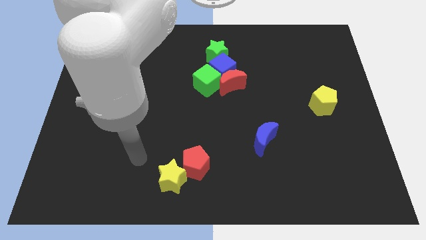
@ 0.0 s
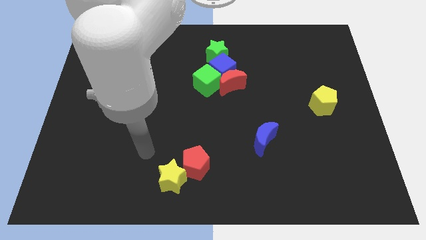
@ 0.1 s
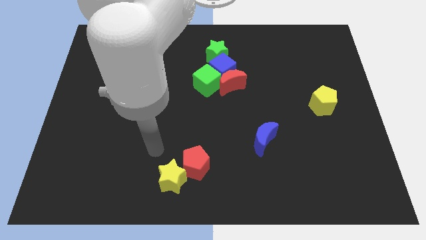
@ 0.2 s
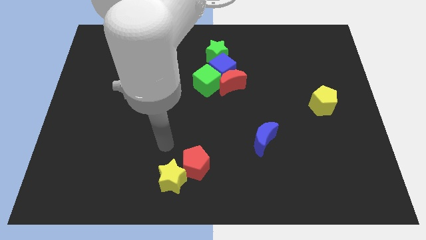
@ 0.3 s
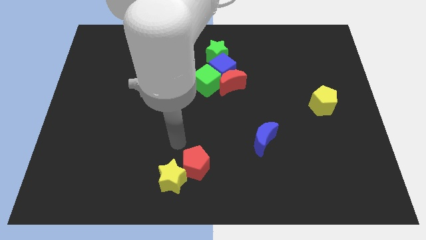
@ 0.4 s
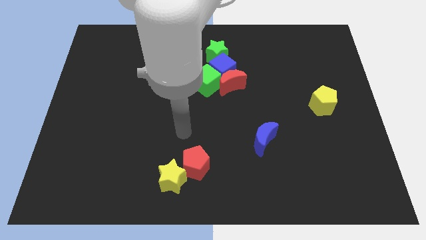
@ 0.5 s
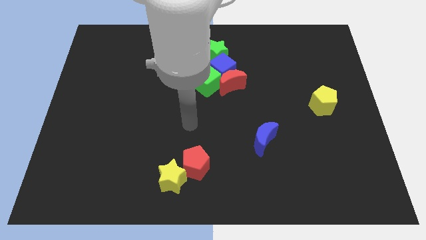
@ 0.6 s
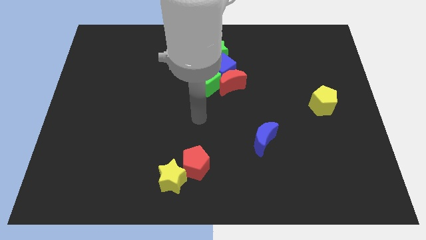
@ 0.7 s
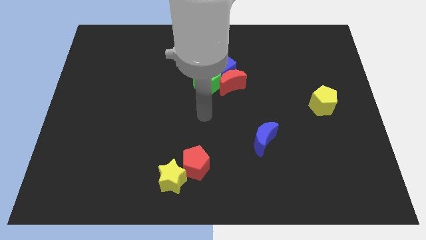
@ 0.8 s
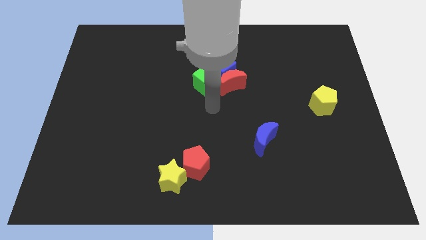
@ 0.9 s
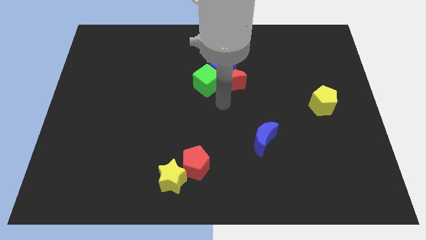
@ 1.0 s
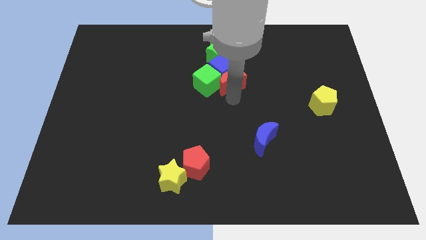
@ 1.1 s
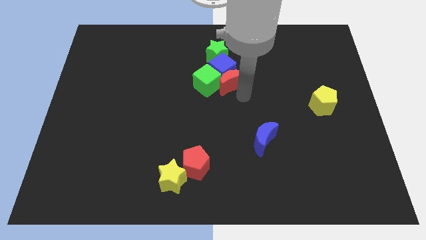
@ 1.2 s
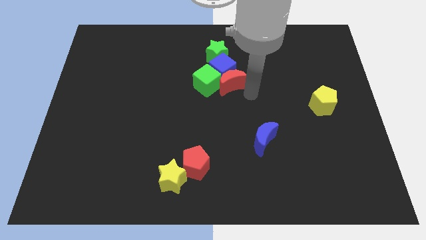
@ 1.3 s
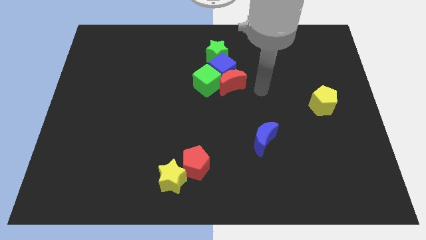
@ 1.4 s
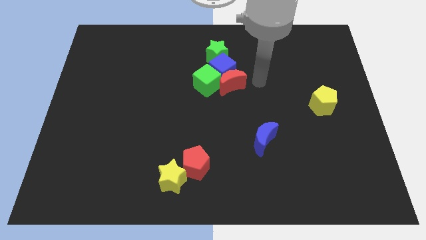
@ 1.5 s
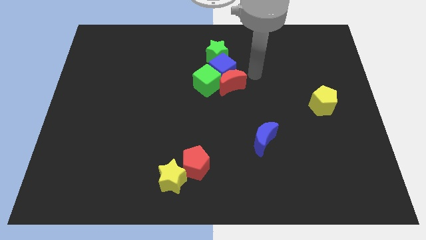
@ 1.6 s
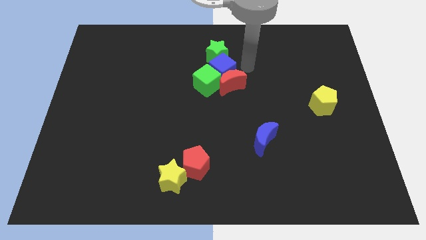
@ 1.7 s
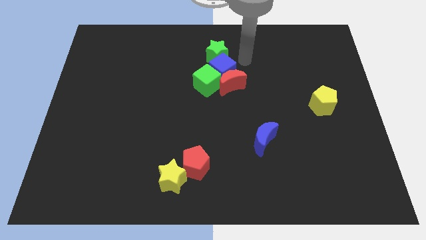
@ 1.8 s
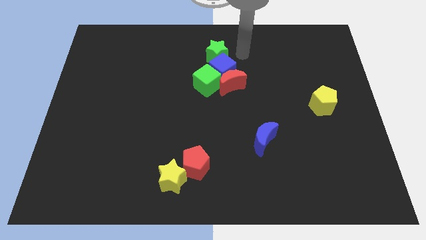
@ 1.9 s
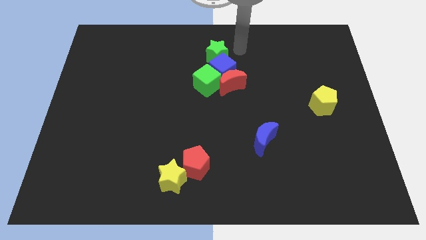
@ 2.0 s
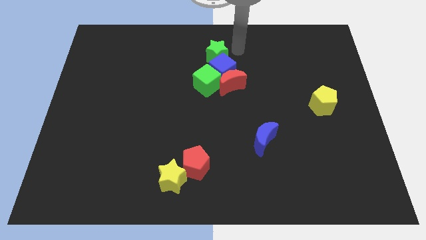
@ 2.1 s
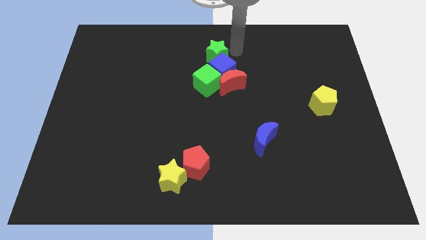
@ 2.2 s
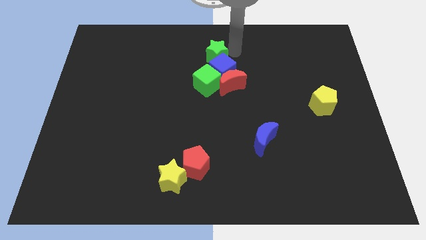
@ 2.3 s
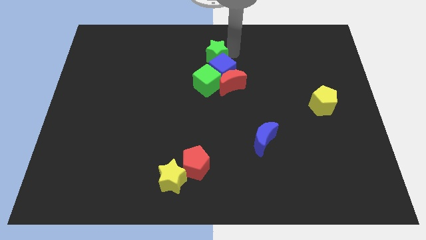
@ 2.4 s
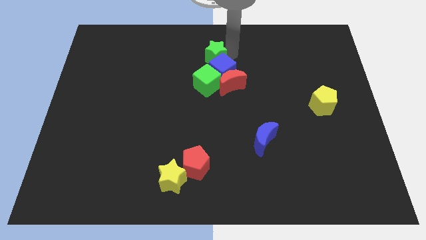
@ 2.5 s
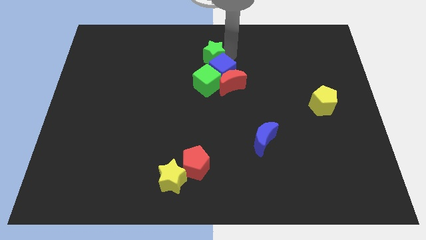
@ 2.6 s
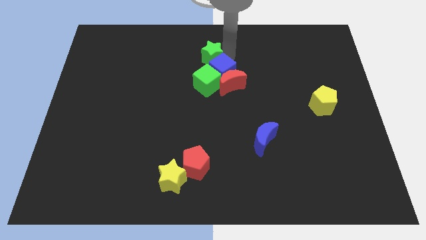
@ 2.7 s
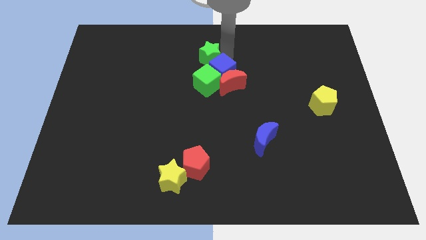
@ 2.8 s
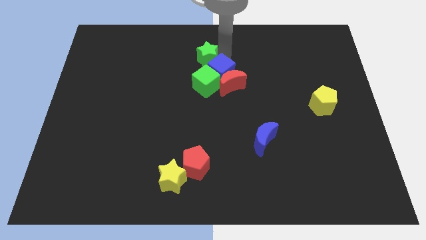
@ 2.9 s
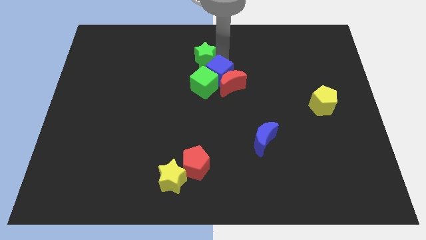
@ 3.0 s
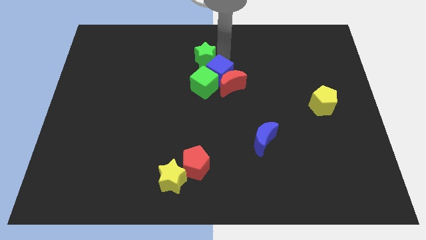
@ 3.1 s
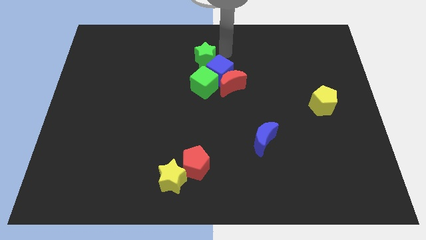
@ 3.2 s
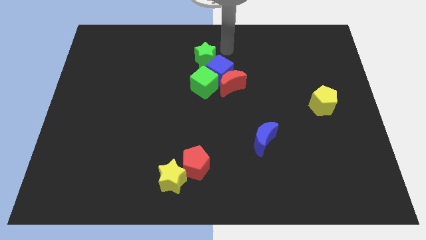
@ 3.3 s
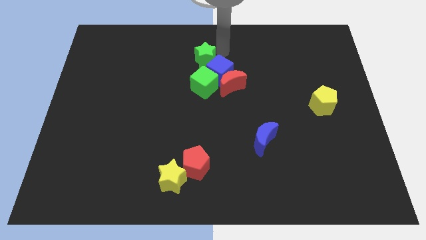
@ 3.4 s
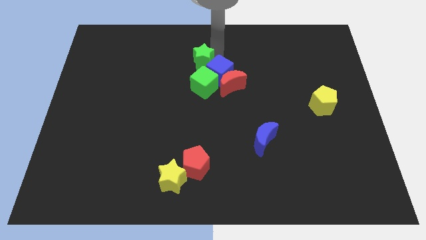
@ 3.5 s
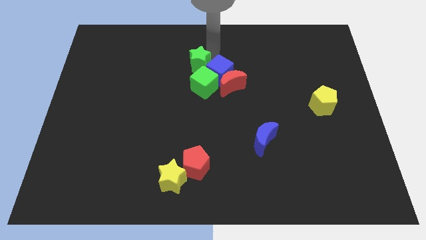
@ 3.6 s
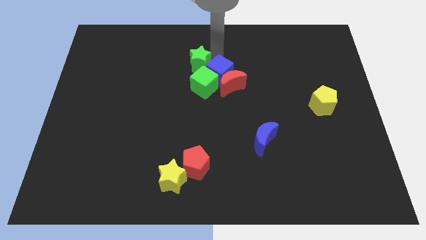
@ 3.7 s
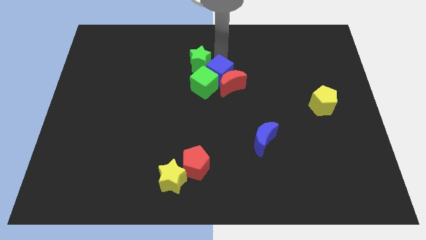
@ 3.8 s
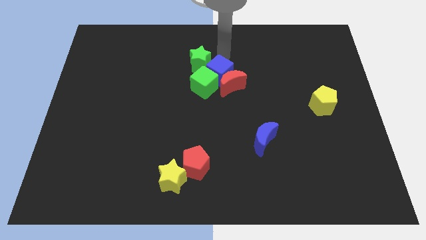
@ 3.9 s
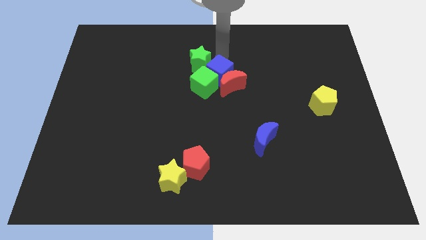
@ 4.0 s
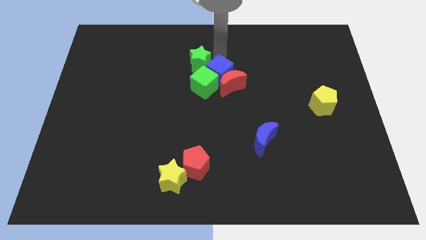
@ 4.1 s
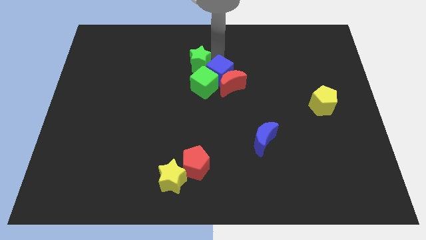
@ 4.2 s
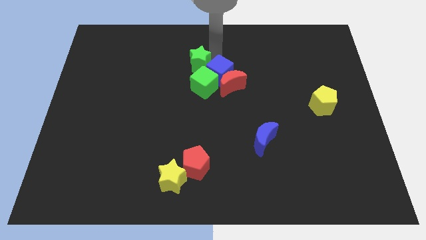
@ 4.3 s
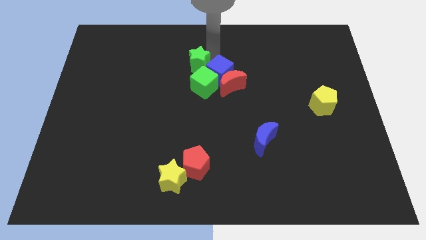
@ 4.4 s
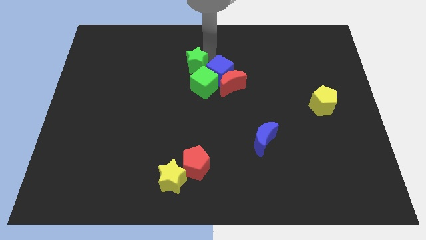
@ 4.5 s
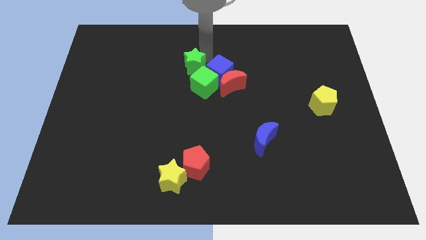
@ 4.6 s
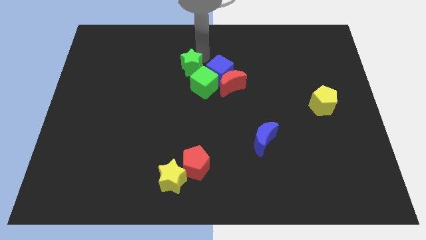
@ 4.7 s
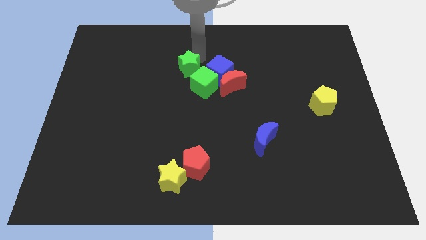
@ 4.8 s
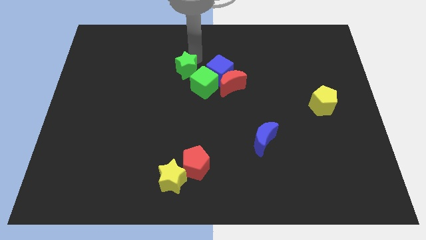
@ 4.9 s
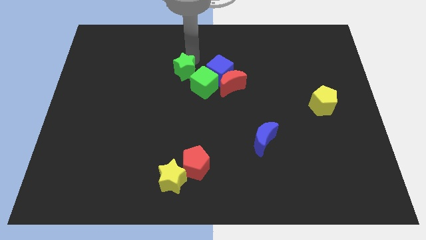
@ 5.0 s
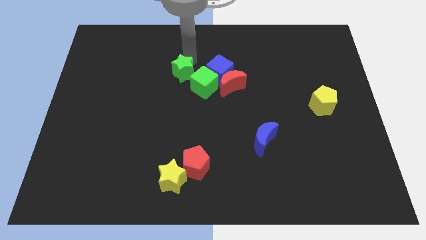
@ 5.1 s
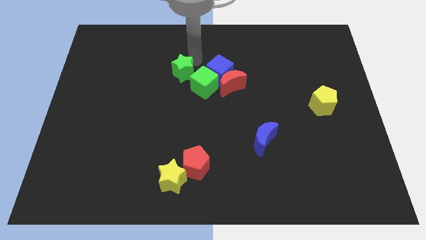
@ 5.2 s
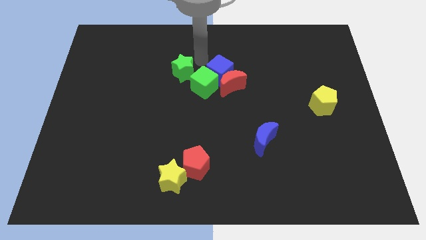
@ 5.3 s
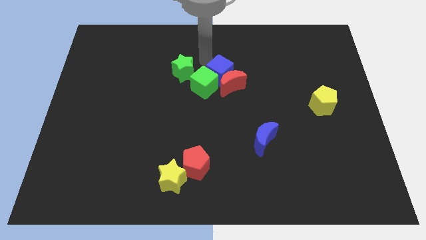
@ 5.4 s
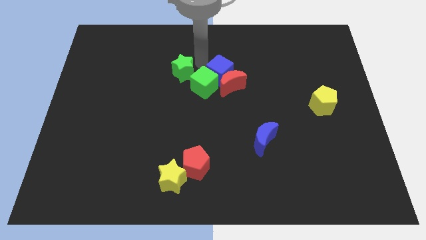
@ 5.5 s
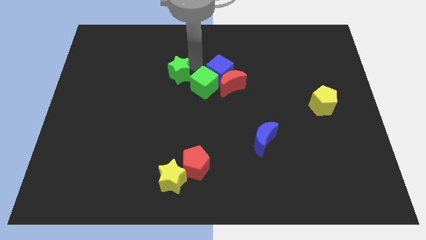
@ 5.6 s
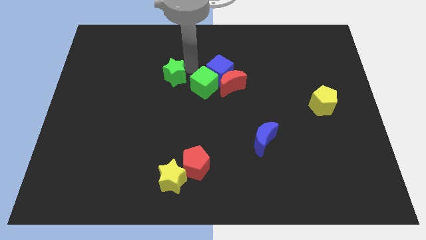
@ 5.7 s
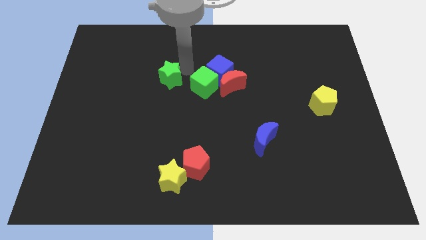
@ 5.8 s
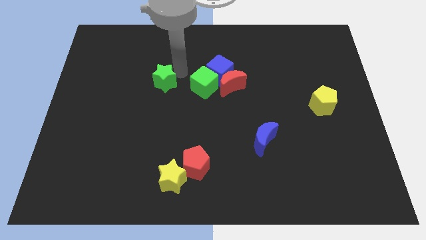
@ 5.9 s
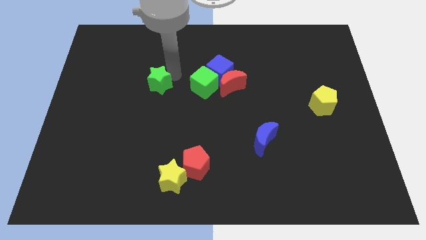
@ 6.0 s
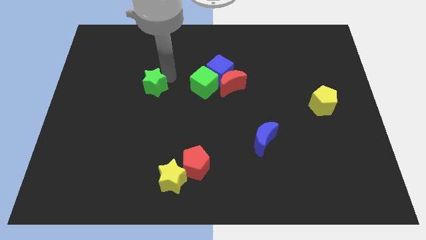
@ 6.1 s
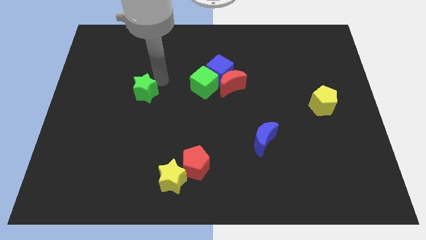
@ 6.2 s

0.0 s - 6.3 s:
move the green star diagonally down and left

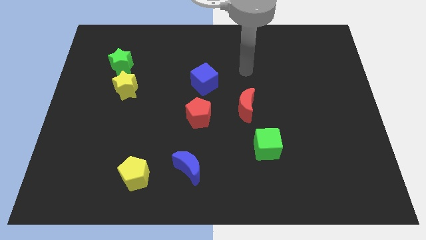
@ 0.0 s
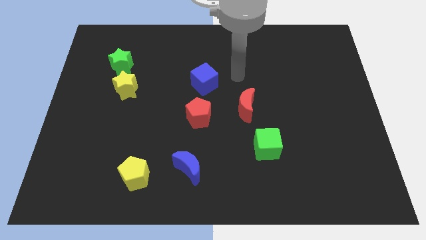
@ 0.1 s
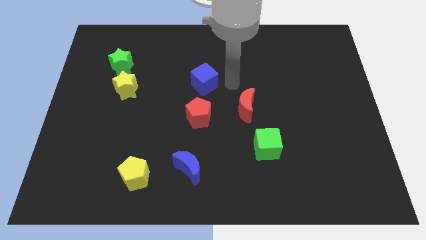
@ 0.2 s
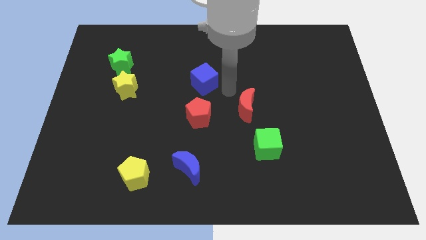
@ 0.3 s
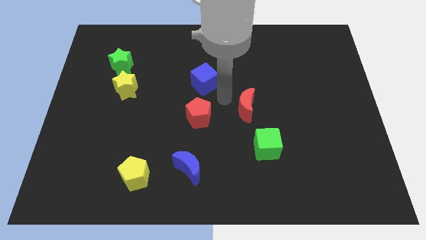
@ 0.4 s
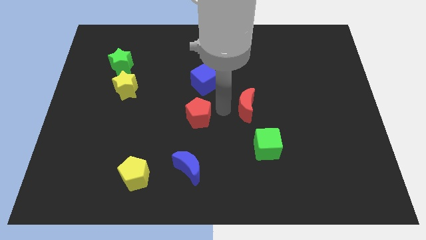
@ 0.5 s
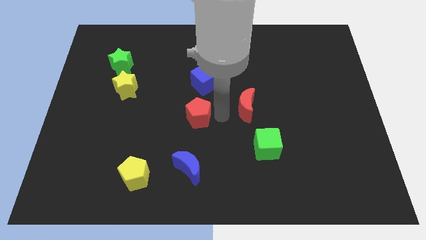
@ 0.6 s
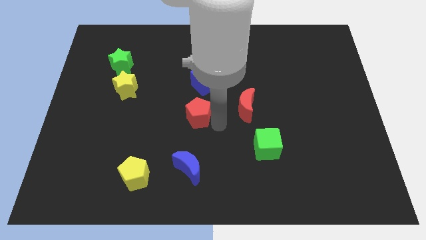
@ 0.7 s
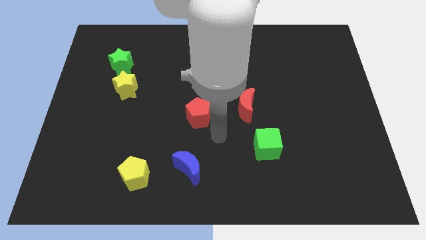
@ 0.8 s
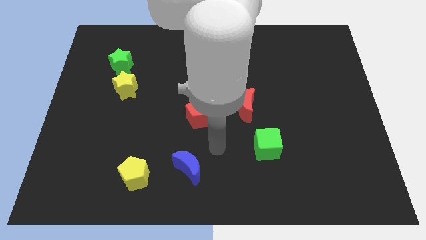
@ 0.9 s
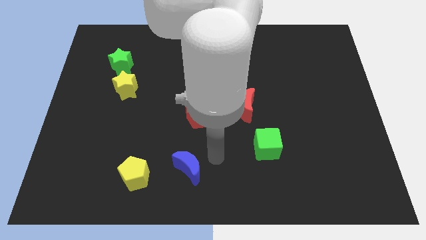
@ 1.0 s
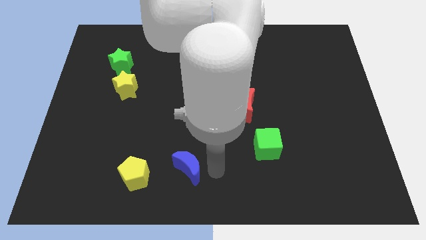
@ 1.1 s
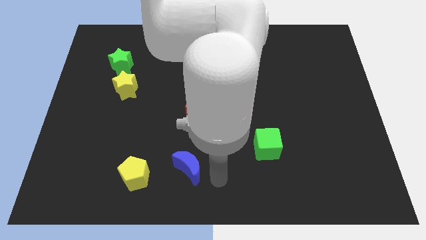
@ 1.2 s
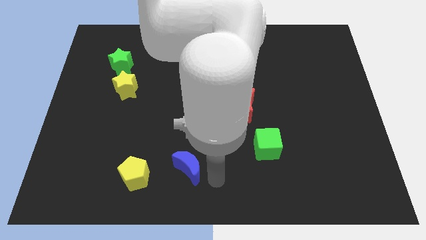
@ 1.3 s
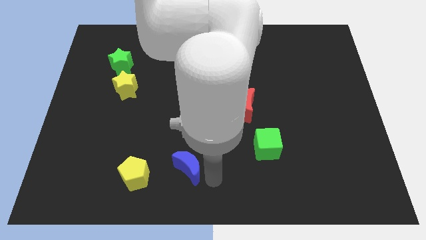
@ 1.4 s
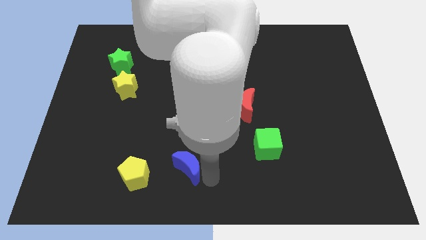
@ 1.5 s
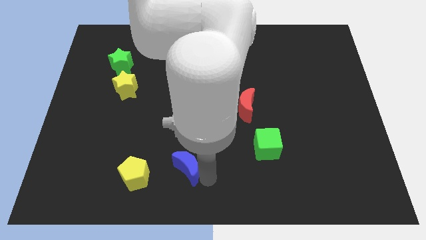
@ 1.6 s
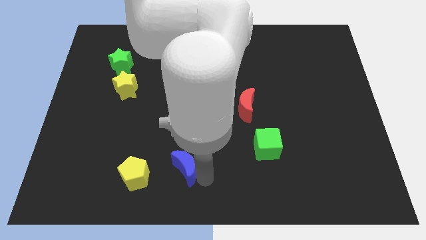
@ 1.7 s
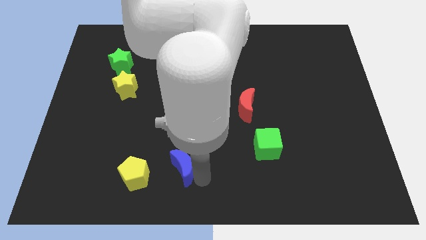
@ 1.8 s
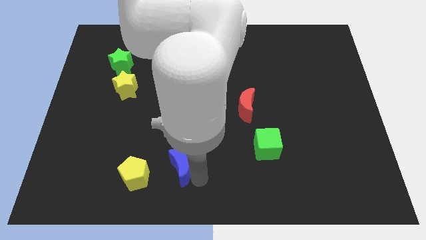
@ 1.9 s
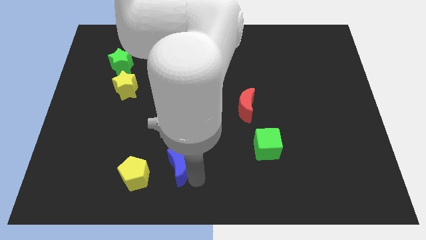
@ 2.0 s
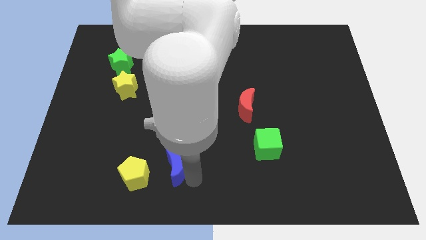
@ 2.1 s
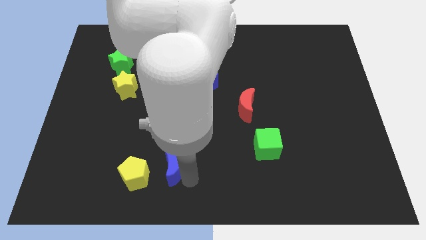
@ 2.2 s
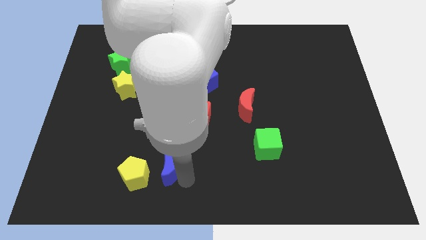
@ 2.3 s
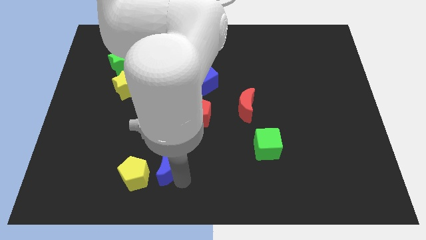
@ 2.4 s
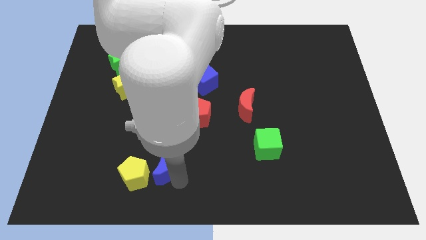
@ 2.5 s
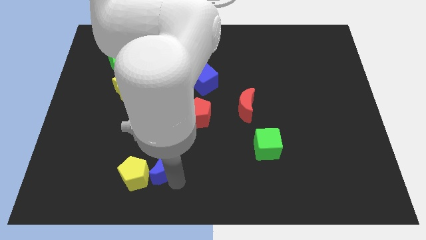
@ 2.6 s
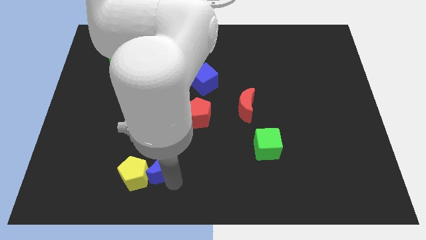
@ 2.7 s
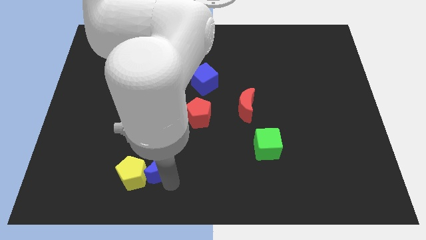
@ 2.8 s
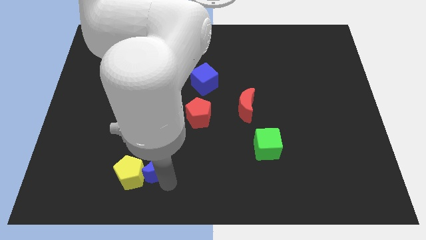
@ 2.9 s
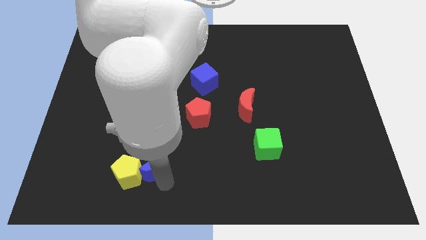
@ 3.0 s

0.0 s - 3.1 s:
move the blue moon a little bit left
